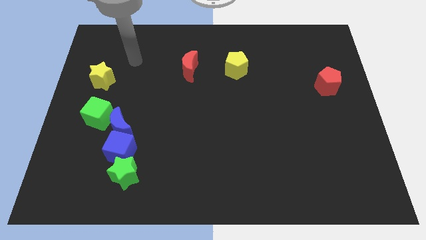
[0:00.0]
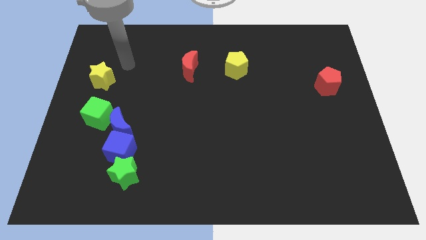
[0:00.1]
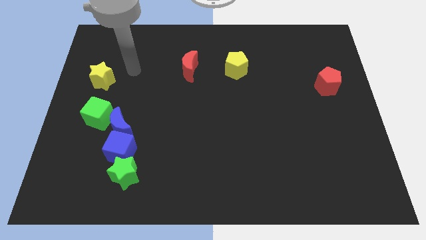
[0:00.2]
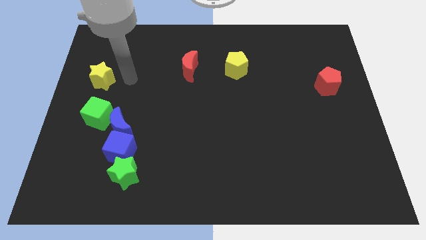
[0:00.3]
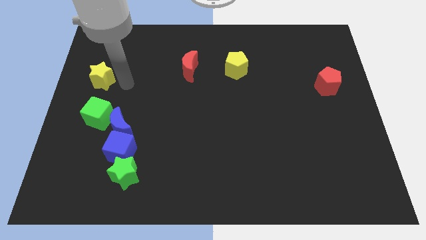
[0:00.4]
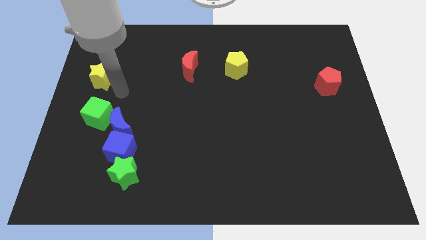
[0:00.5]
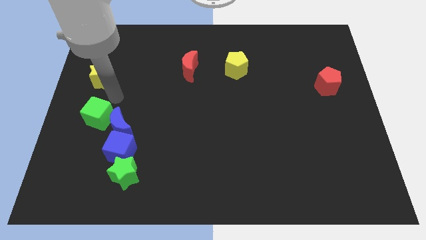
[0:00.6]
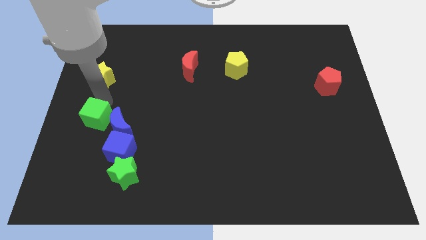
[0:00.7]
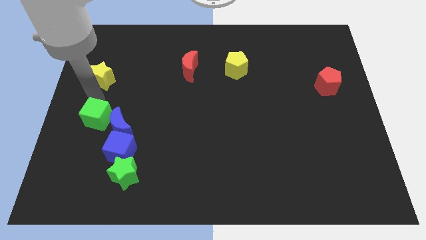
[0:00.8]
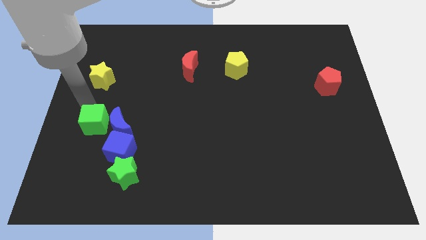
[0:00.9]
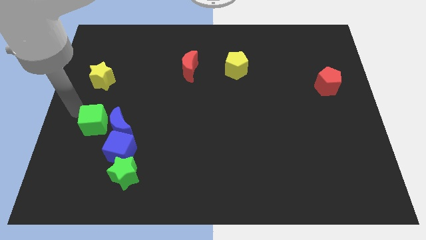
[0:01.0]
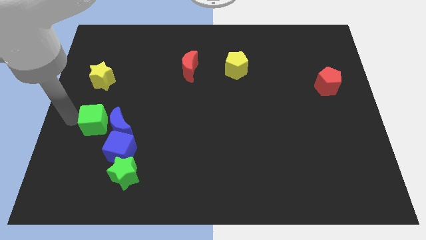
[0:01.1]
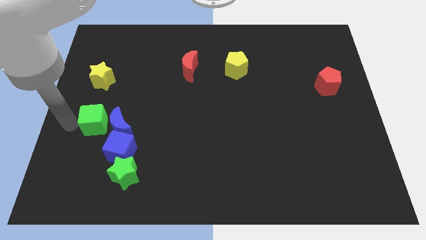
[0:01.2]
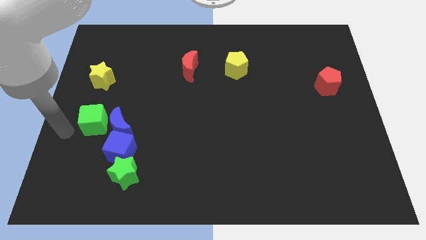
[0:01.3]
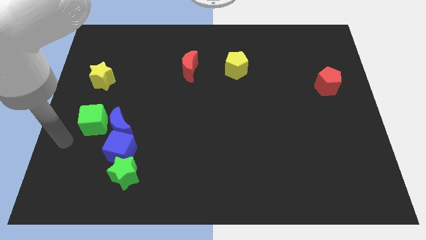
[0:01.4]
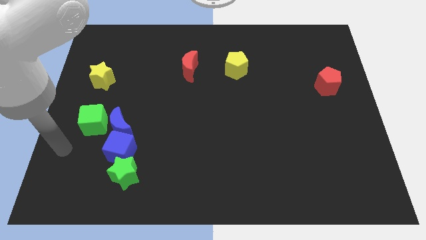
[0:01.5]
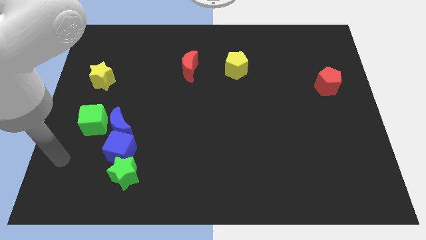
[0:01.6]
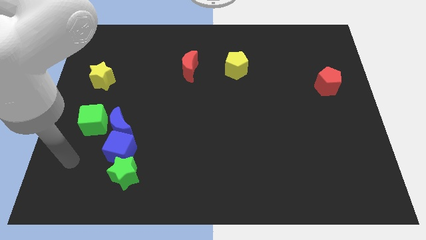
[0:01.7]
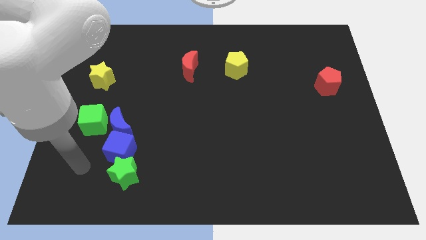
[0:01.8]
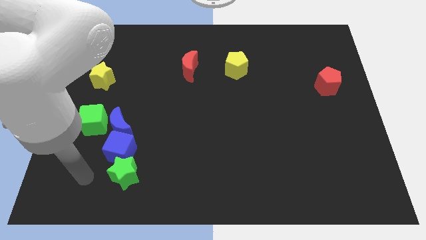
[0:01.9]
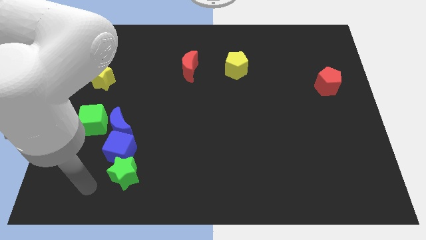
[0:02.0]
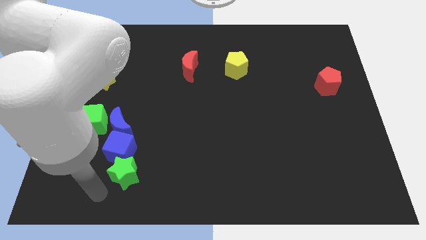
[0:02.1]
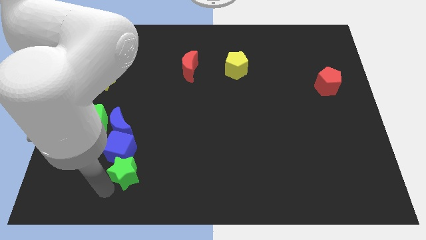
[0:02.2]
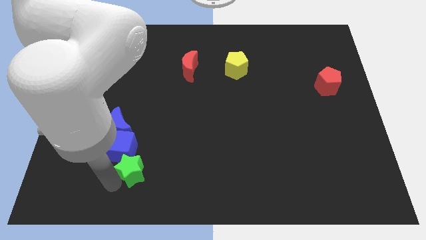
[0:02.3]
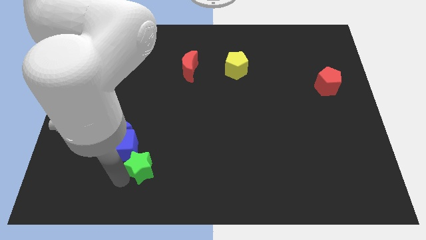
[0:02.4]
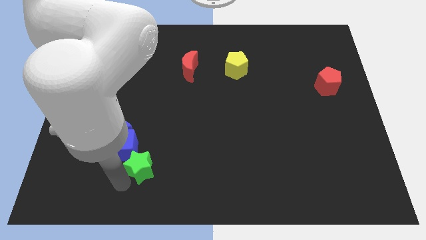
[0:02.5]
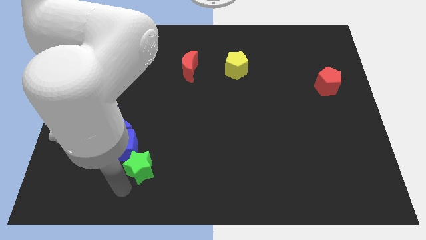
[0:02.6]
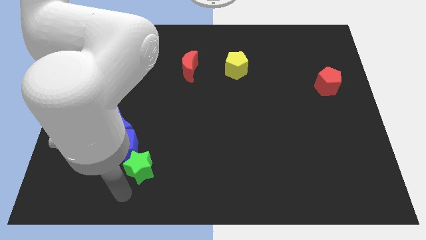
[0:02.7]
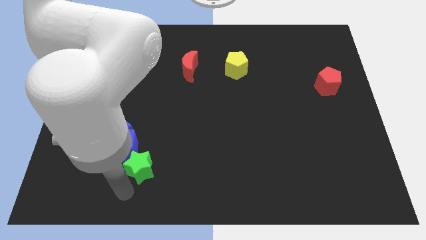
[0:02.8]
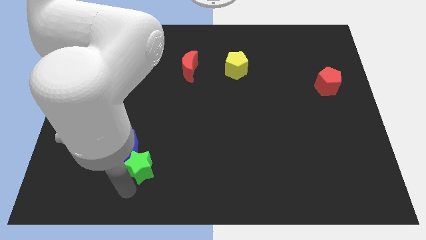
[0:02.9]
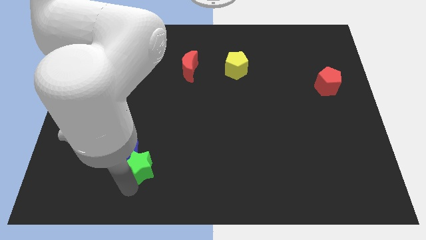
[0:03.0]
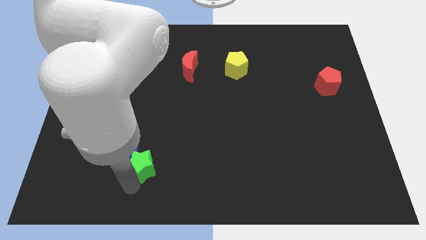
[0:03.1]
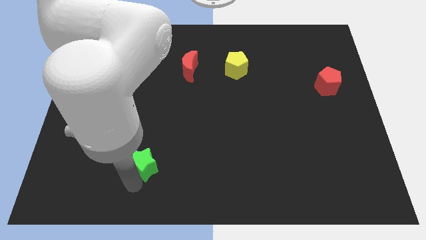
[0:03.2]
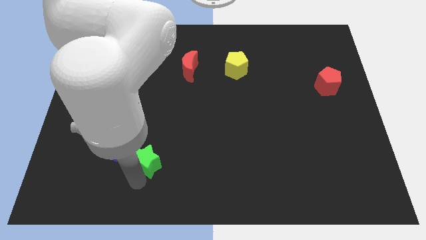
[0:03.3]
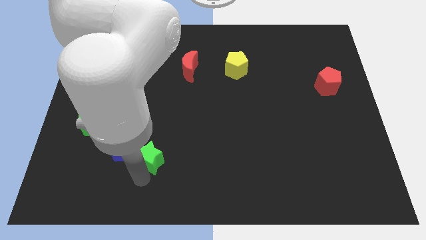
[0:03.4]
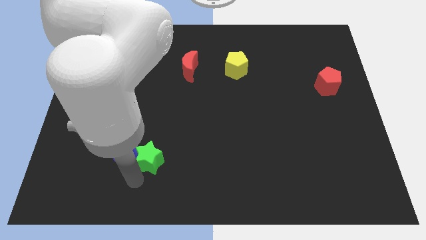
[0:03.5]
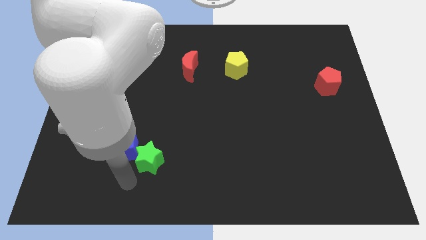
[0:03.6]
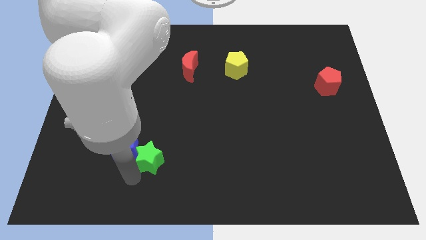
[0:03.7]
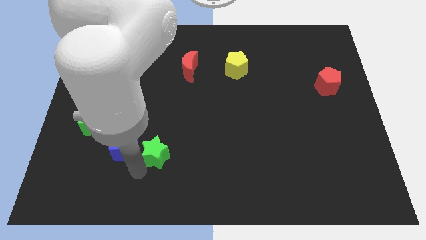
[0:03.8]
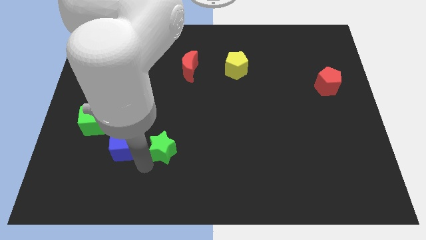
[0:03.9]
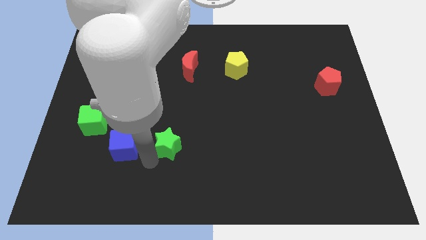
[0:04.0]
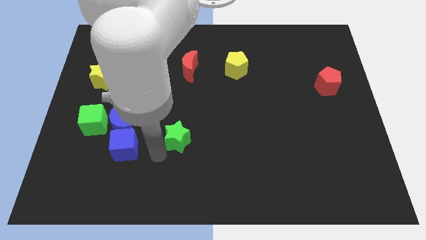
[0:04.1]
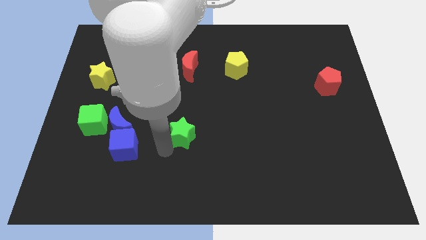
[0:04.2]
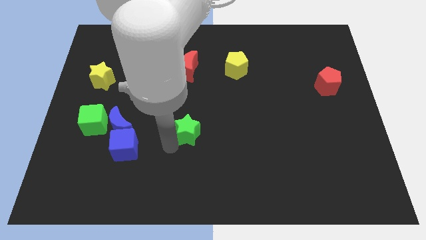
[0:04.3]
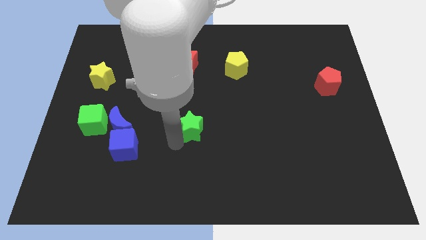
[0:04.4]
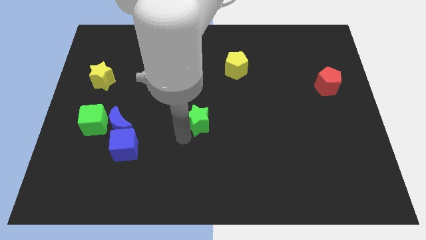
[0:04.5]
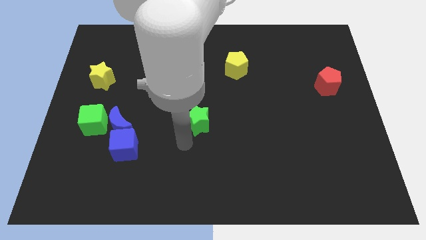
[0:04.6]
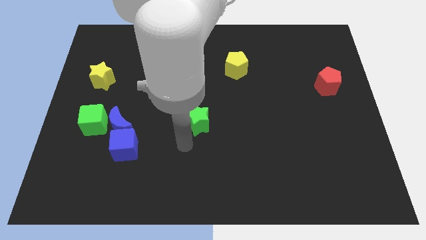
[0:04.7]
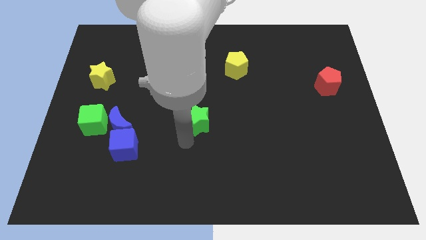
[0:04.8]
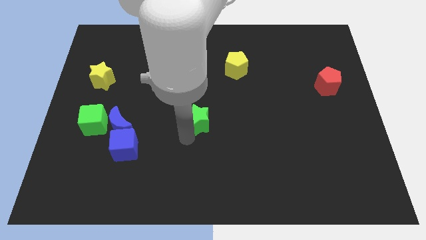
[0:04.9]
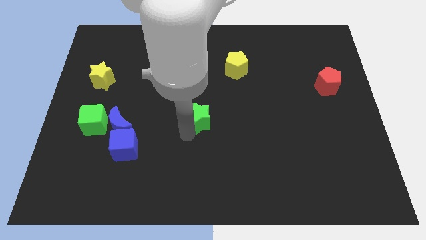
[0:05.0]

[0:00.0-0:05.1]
move the green star upwards and then right

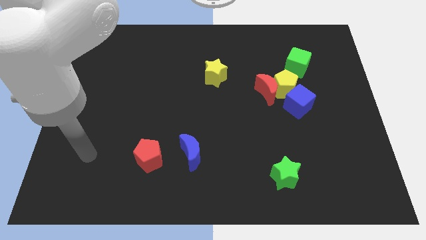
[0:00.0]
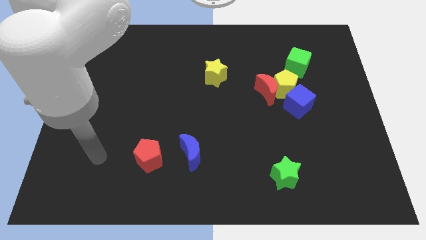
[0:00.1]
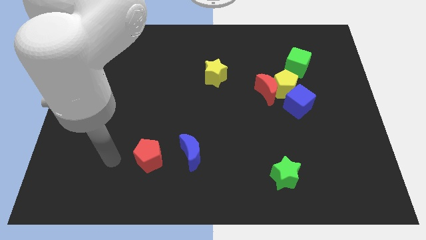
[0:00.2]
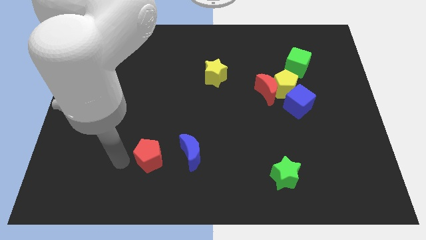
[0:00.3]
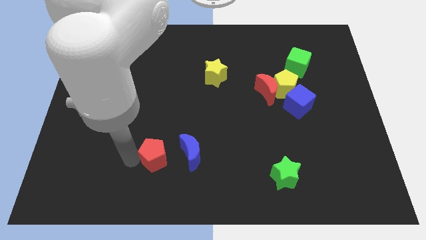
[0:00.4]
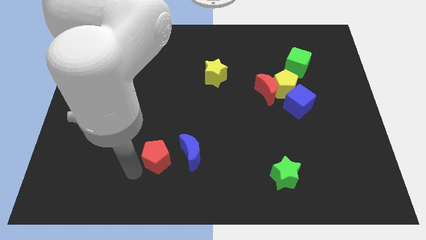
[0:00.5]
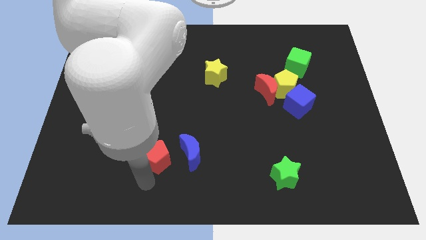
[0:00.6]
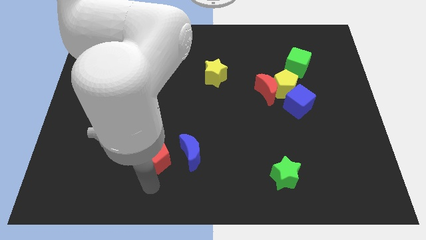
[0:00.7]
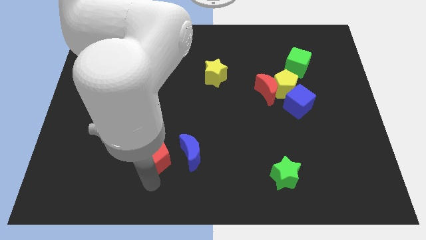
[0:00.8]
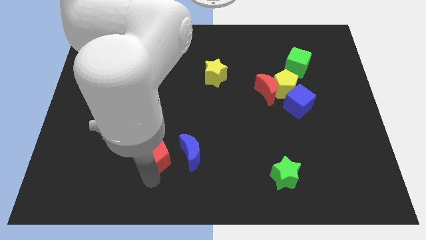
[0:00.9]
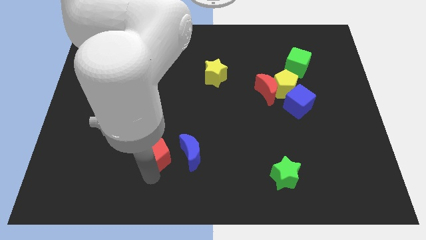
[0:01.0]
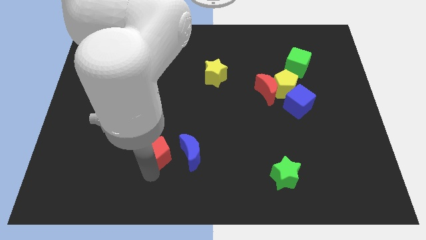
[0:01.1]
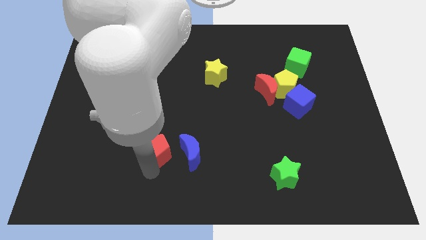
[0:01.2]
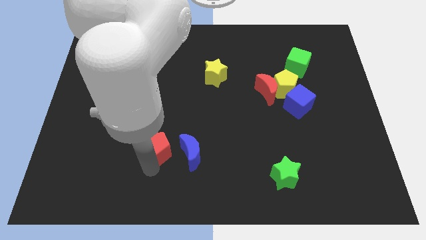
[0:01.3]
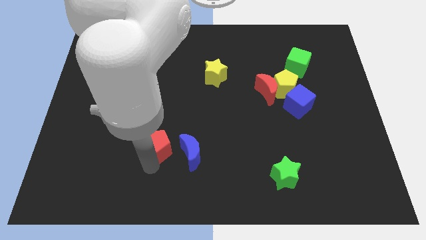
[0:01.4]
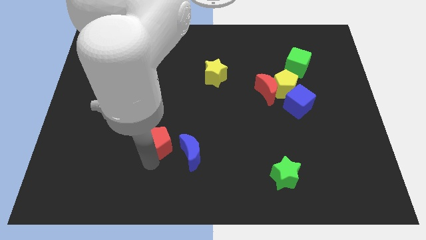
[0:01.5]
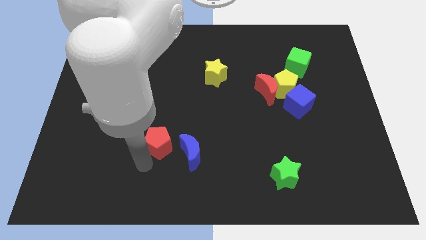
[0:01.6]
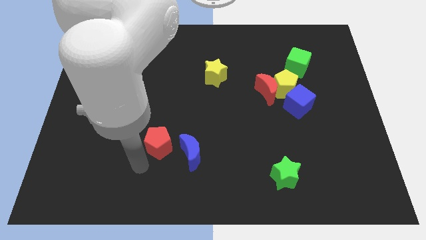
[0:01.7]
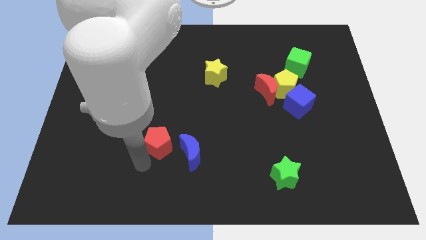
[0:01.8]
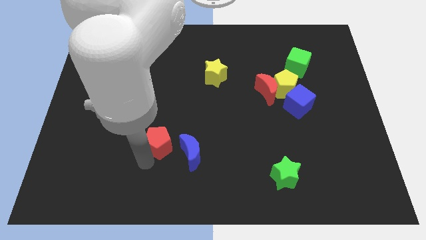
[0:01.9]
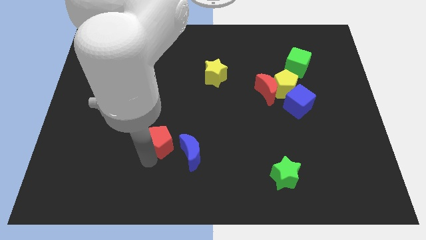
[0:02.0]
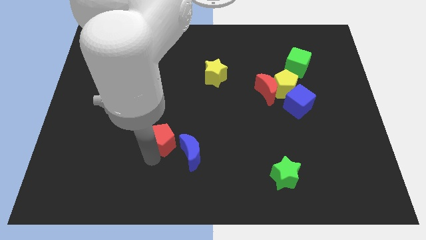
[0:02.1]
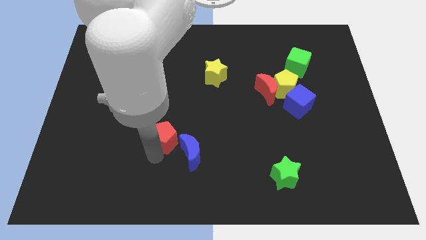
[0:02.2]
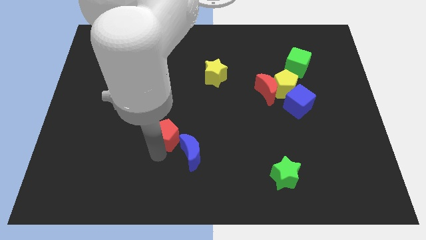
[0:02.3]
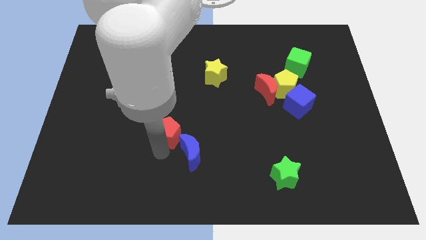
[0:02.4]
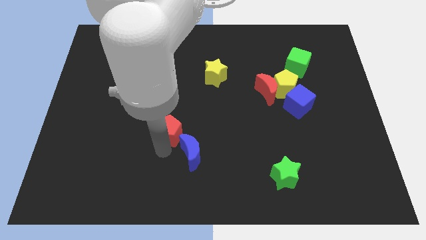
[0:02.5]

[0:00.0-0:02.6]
slightly move the red pentagon up and to the right diagonally

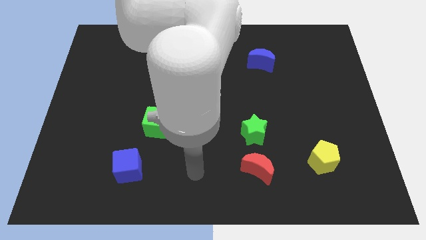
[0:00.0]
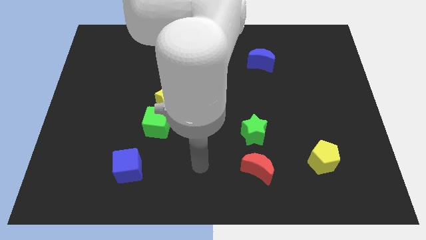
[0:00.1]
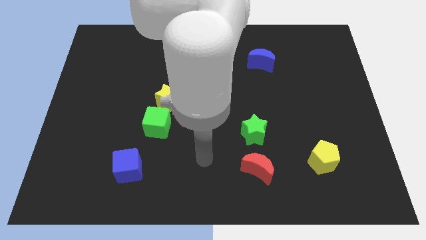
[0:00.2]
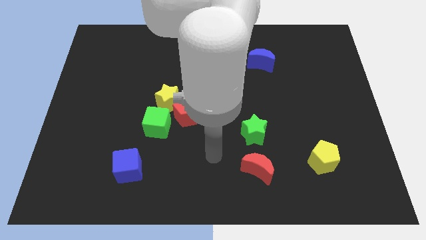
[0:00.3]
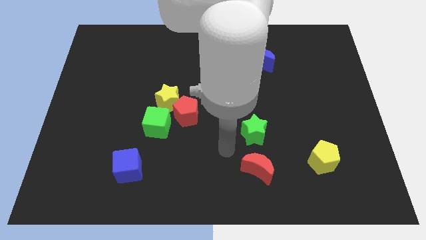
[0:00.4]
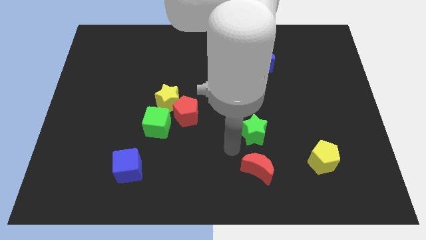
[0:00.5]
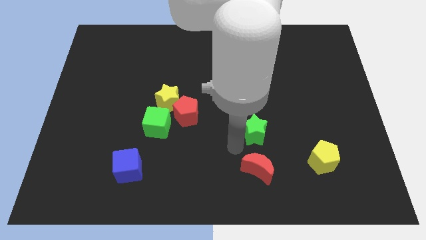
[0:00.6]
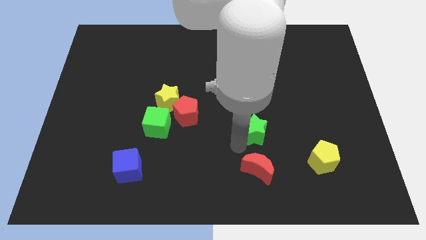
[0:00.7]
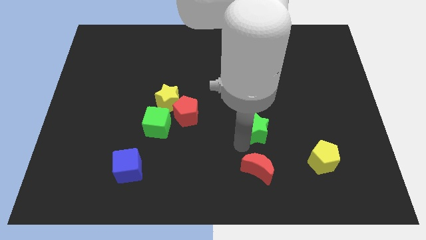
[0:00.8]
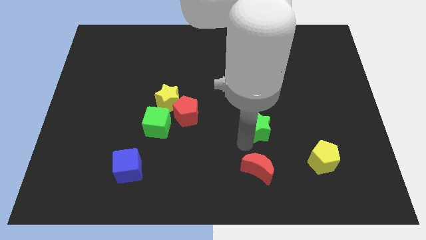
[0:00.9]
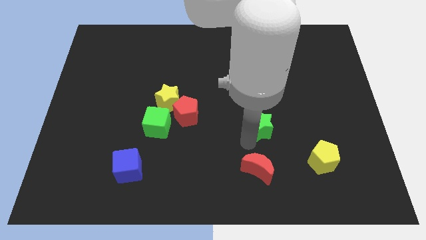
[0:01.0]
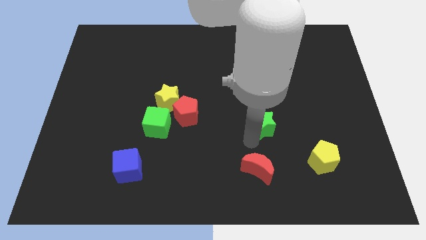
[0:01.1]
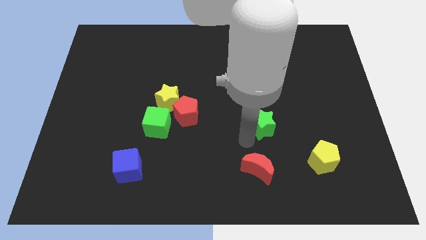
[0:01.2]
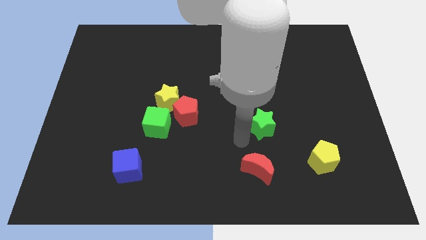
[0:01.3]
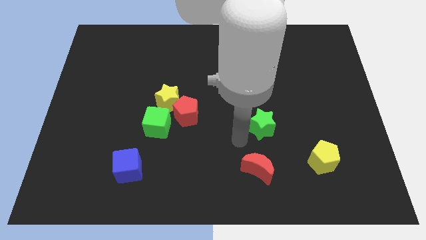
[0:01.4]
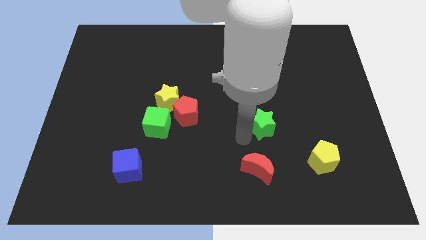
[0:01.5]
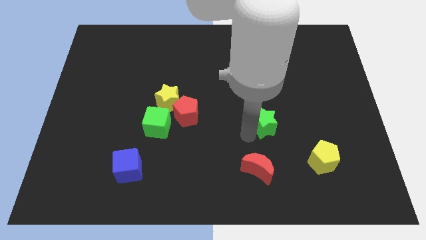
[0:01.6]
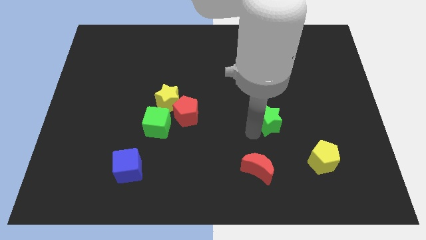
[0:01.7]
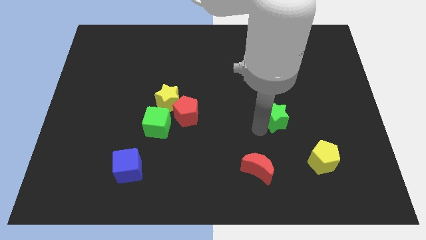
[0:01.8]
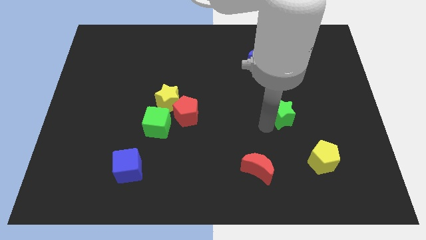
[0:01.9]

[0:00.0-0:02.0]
push the green star upwards and to the right a bit
